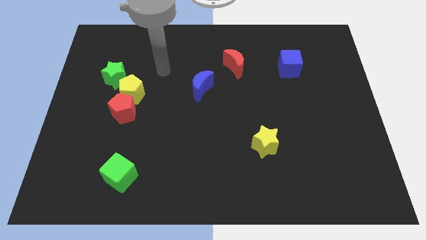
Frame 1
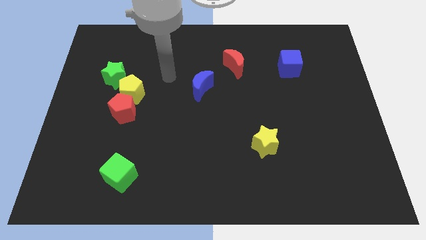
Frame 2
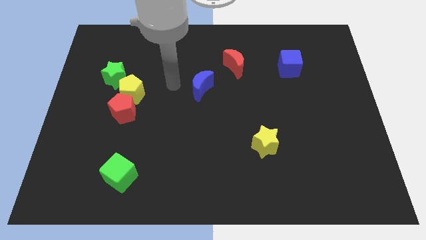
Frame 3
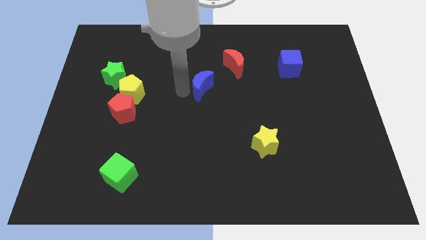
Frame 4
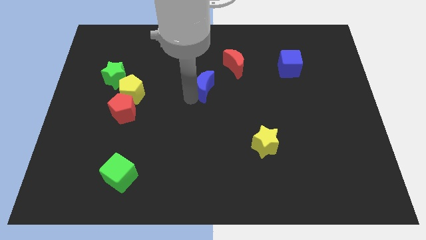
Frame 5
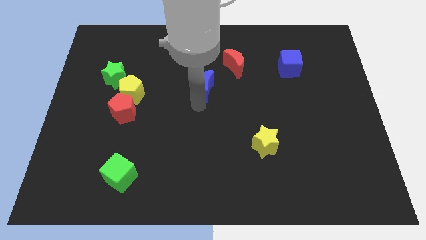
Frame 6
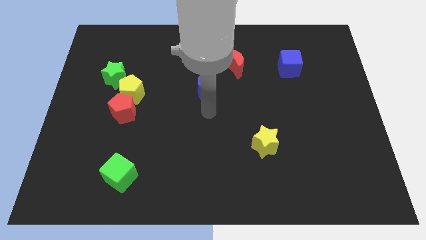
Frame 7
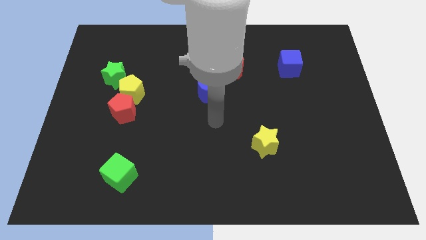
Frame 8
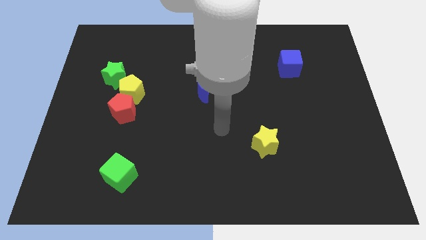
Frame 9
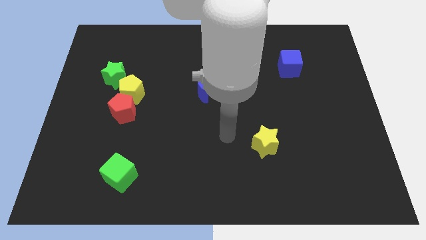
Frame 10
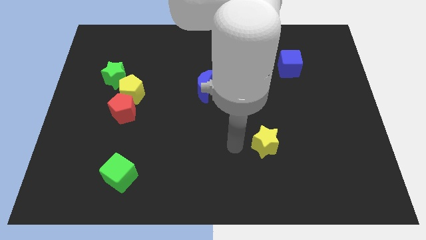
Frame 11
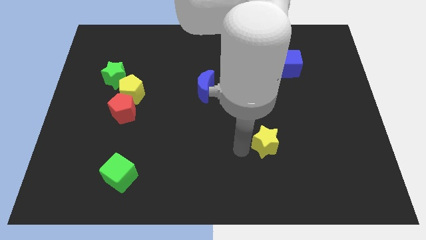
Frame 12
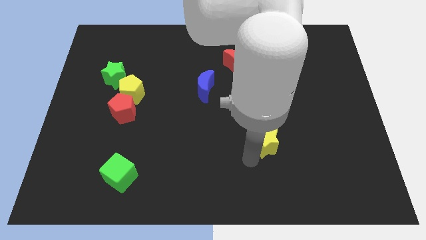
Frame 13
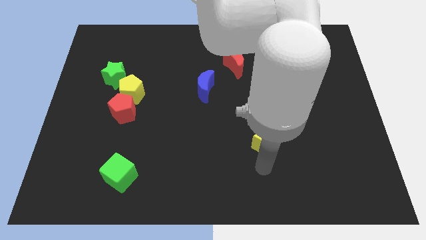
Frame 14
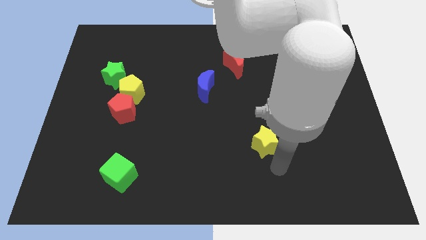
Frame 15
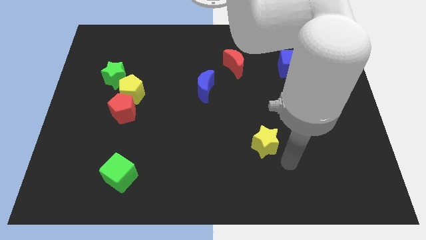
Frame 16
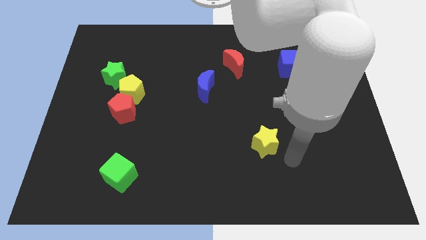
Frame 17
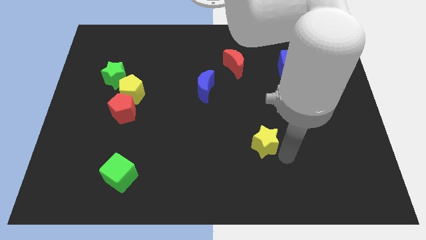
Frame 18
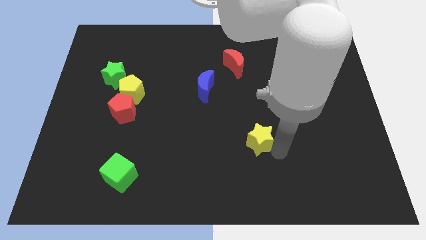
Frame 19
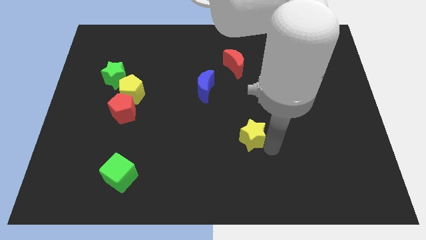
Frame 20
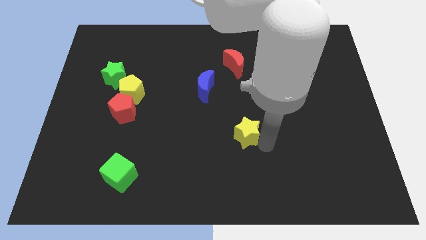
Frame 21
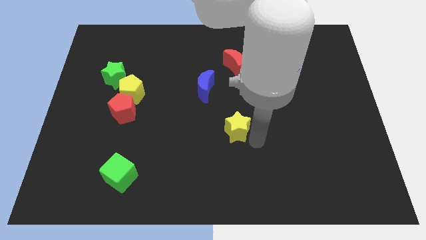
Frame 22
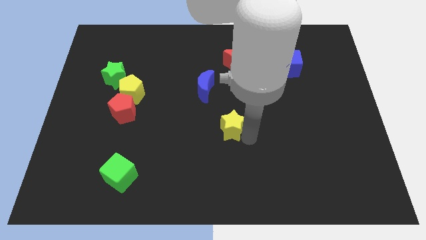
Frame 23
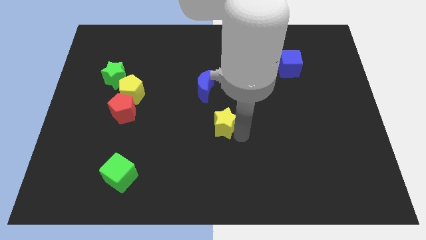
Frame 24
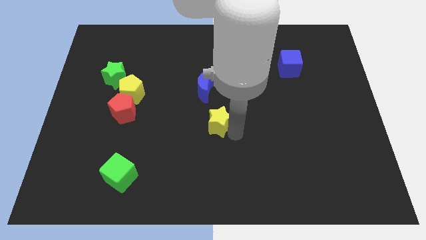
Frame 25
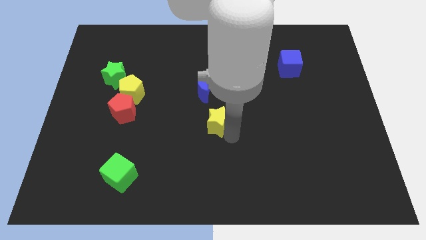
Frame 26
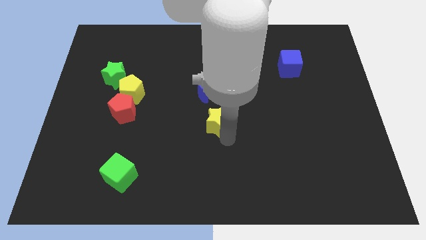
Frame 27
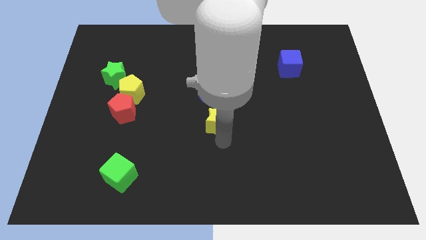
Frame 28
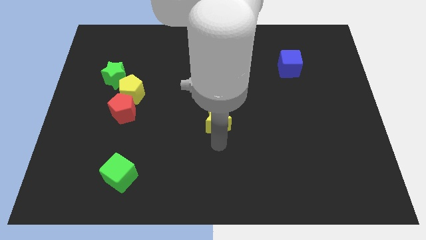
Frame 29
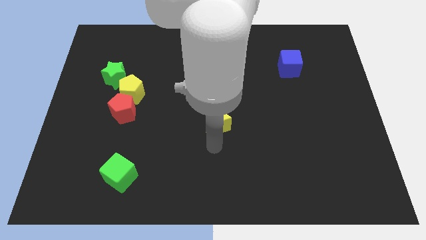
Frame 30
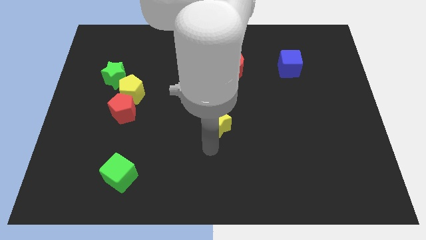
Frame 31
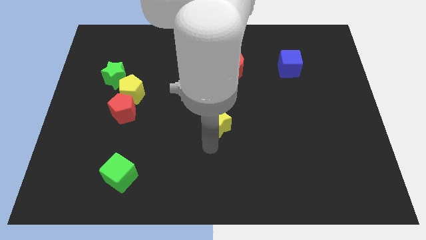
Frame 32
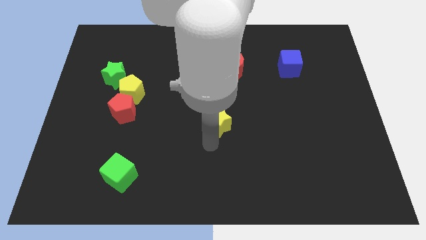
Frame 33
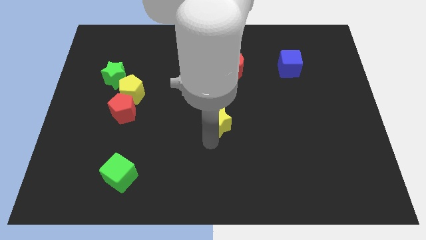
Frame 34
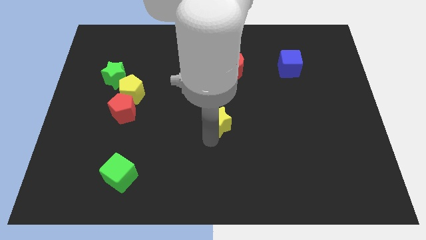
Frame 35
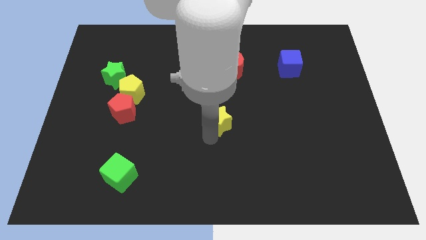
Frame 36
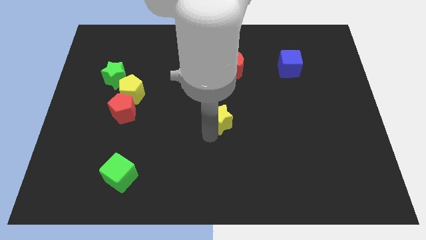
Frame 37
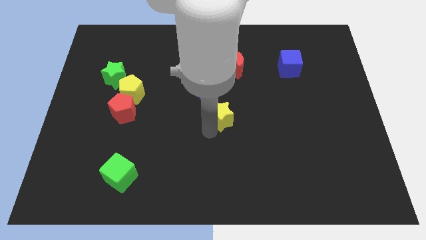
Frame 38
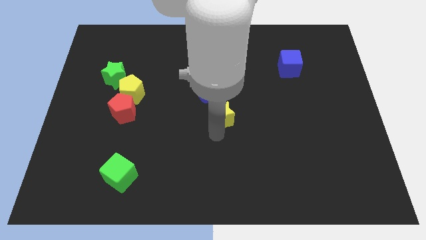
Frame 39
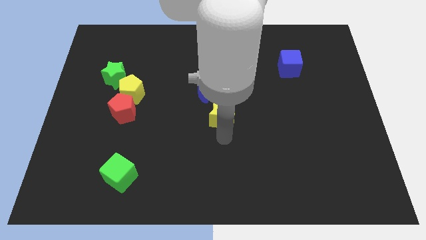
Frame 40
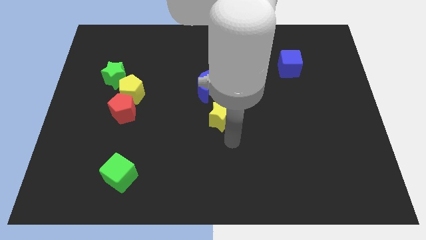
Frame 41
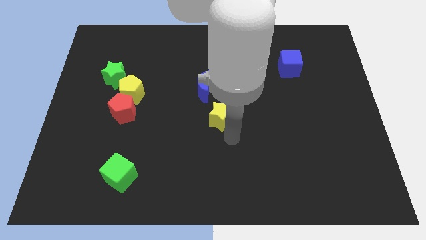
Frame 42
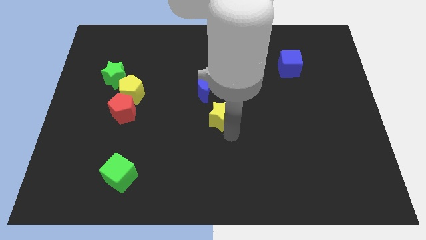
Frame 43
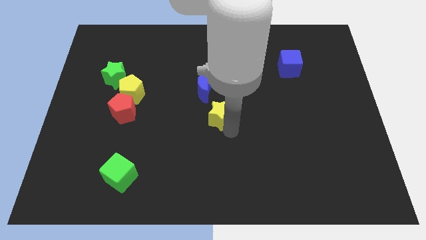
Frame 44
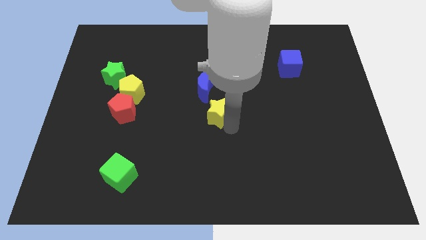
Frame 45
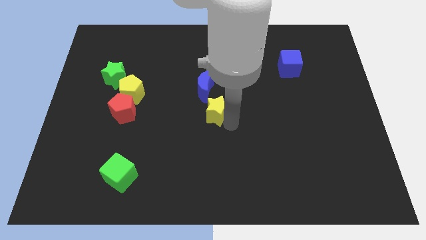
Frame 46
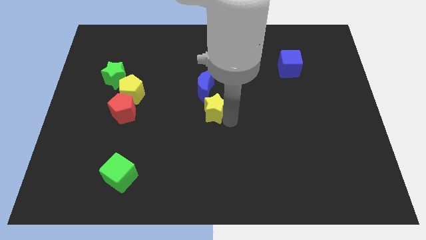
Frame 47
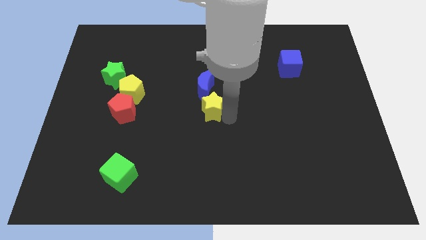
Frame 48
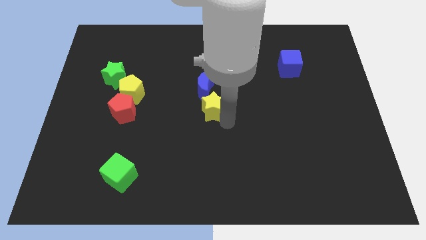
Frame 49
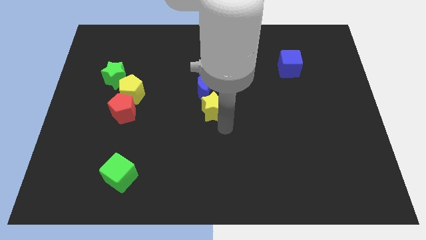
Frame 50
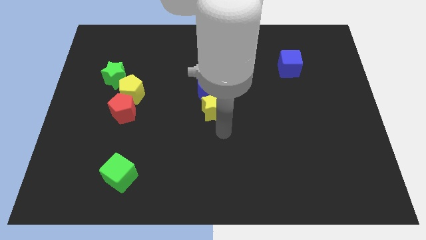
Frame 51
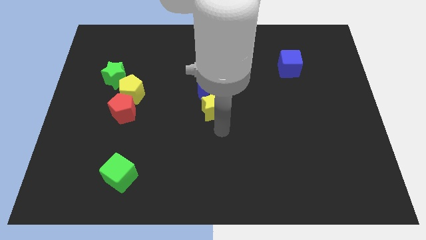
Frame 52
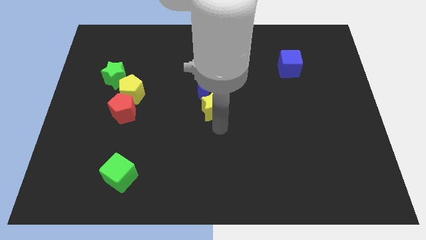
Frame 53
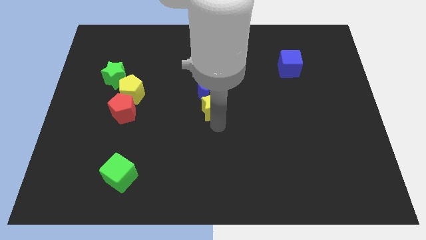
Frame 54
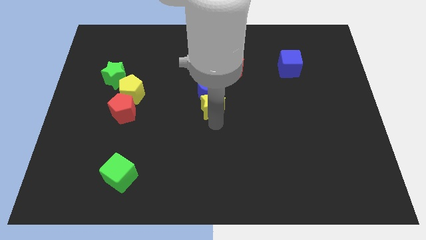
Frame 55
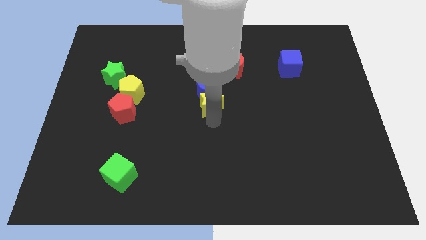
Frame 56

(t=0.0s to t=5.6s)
slide the yellow star towards the blue moon

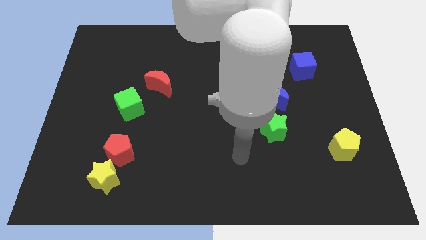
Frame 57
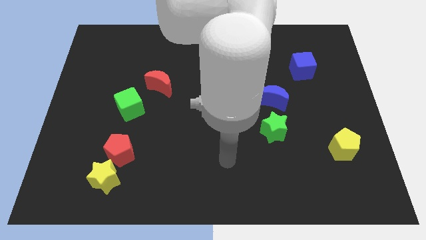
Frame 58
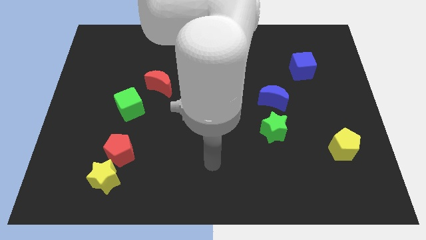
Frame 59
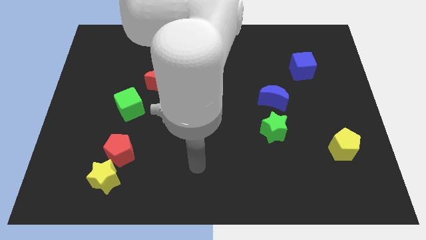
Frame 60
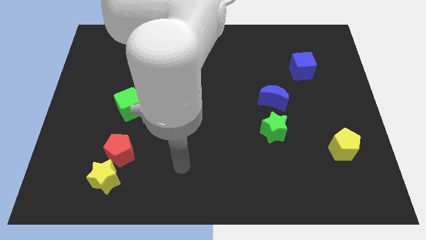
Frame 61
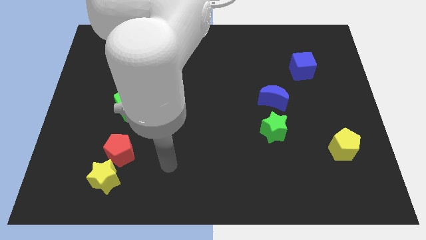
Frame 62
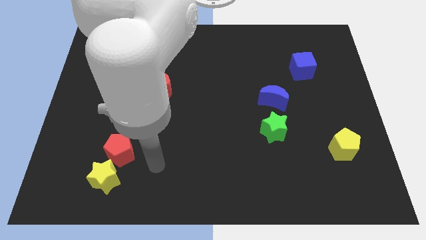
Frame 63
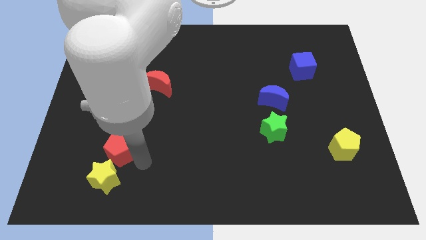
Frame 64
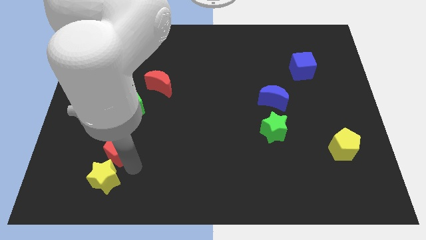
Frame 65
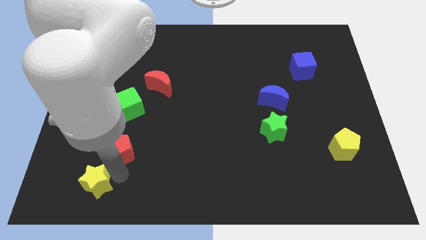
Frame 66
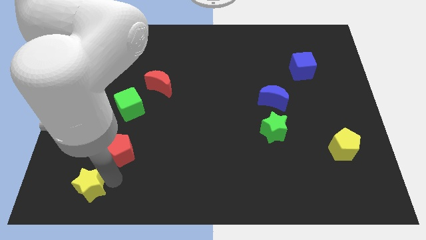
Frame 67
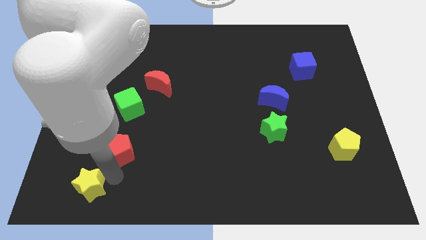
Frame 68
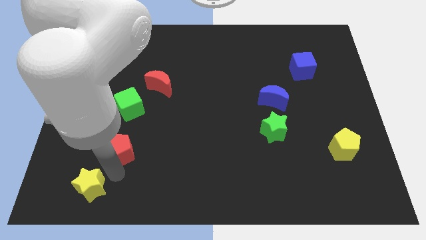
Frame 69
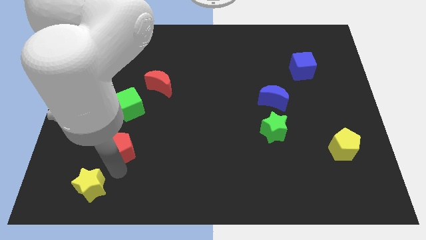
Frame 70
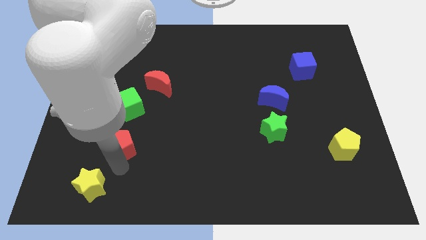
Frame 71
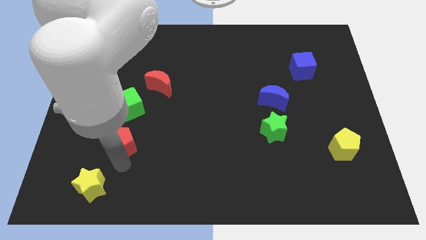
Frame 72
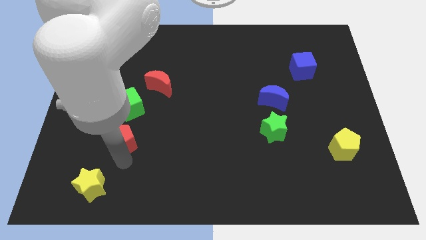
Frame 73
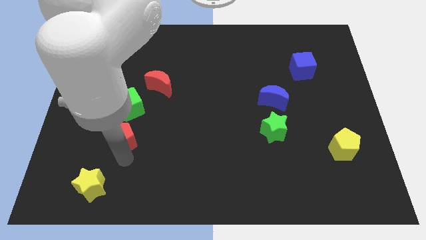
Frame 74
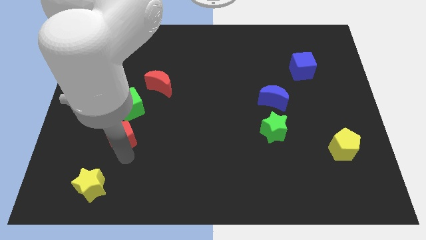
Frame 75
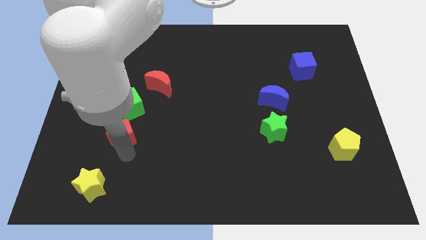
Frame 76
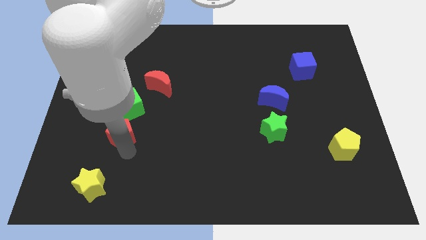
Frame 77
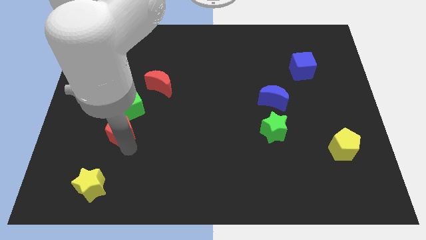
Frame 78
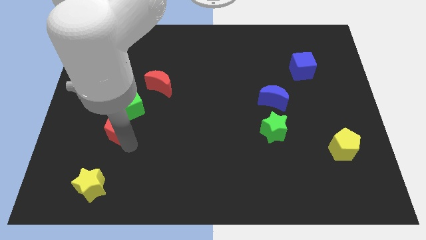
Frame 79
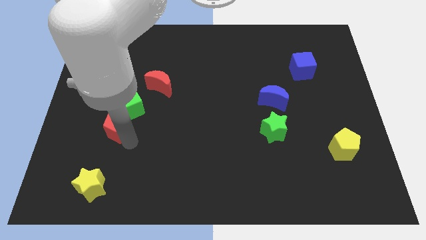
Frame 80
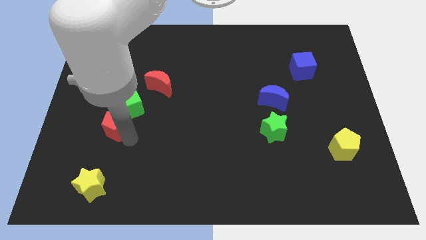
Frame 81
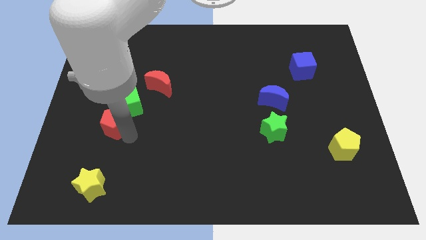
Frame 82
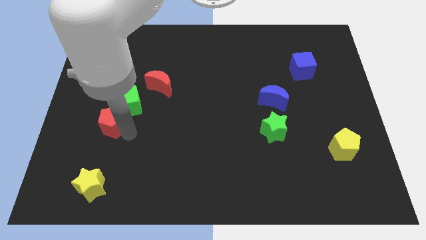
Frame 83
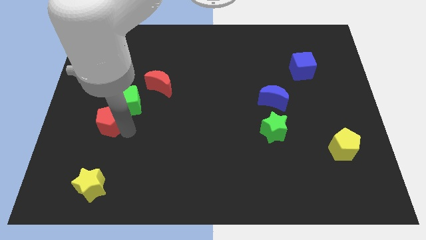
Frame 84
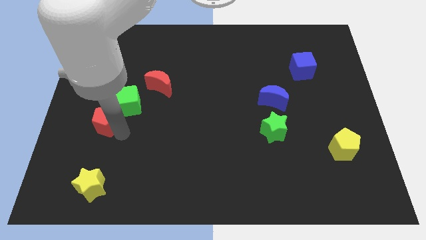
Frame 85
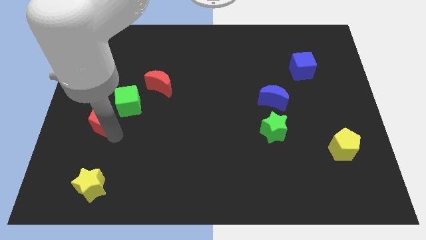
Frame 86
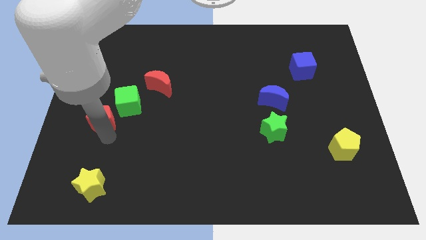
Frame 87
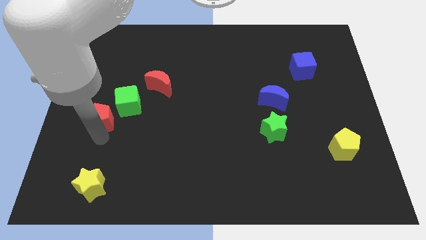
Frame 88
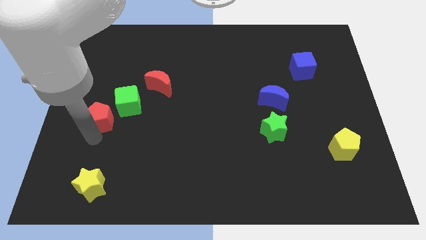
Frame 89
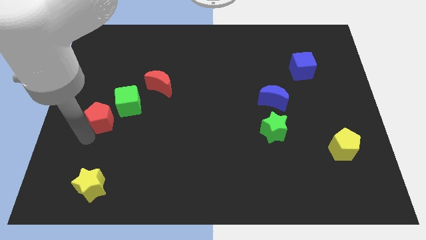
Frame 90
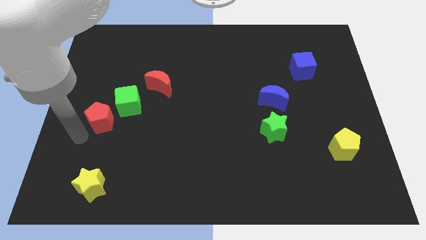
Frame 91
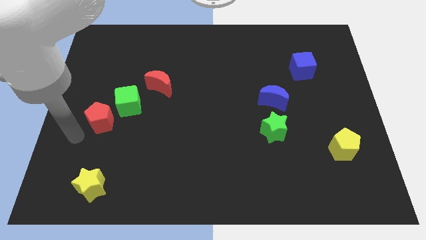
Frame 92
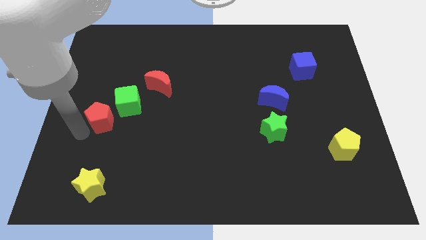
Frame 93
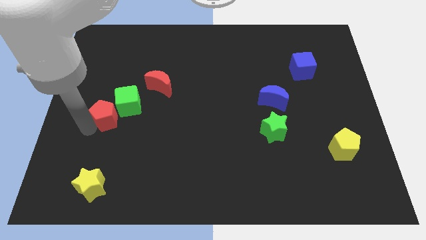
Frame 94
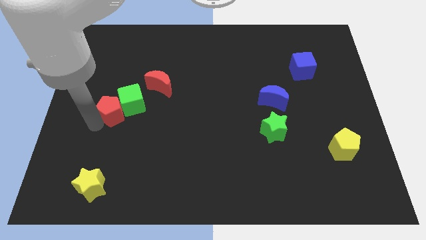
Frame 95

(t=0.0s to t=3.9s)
move the red pentagon close to the green cube
